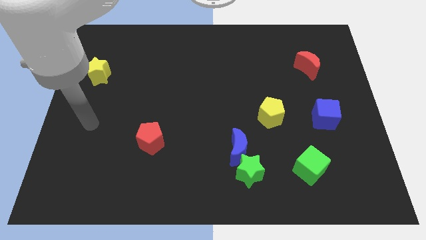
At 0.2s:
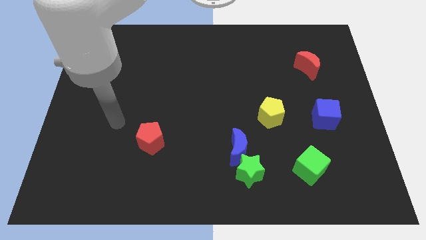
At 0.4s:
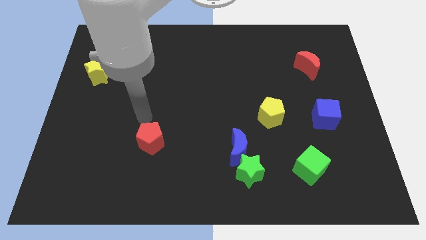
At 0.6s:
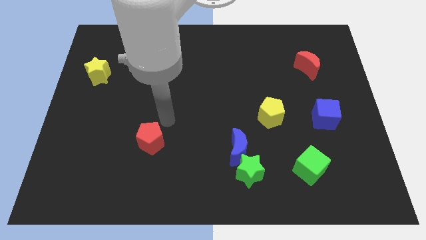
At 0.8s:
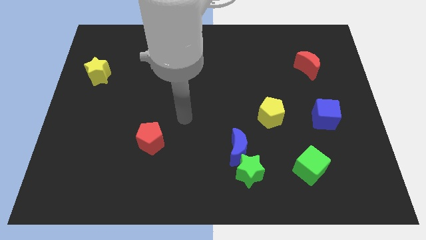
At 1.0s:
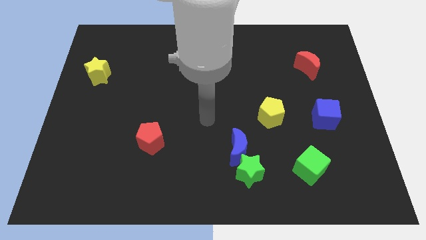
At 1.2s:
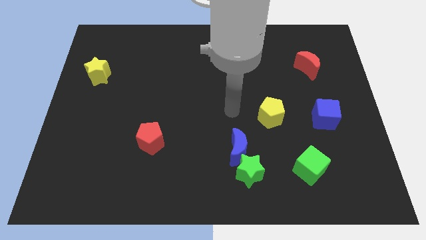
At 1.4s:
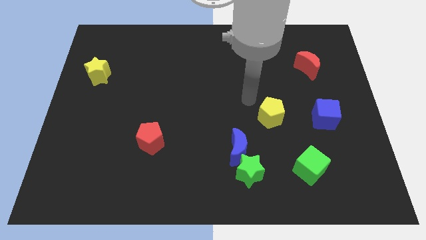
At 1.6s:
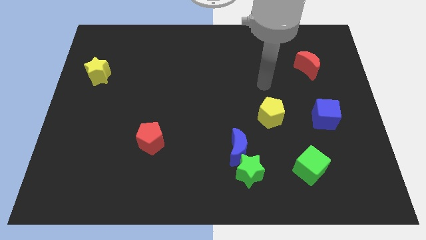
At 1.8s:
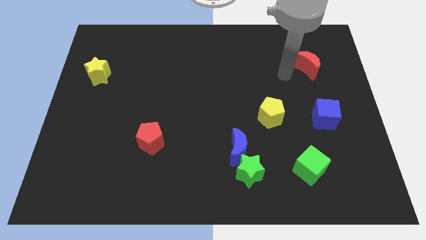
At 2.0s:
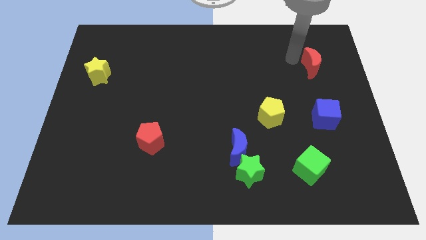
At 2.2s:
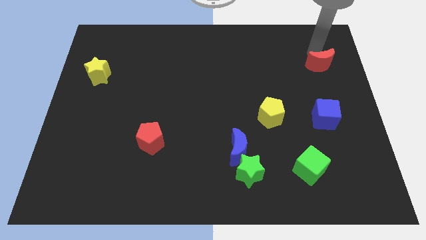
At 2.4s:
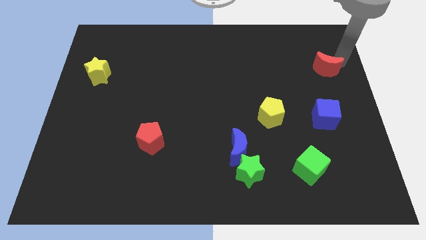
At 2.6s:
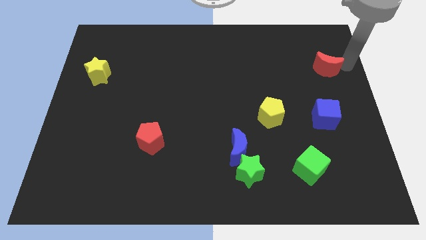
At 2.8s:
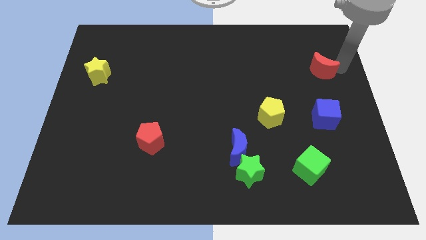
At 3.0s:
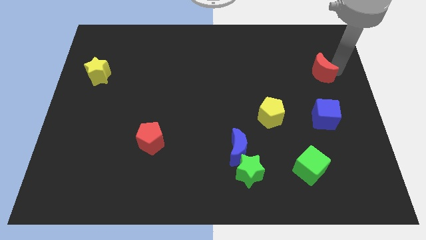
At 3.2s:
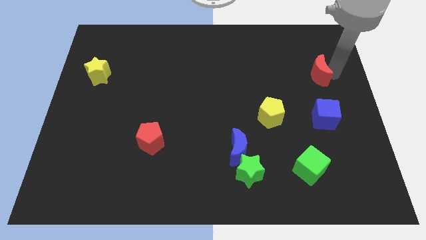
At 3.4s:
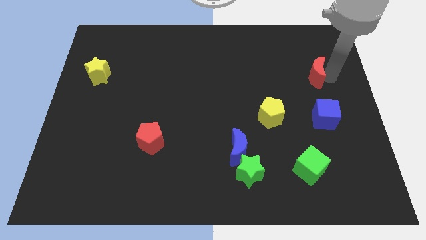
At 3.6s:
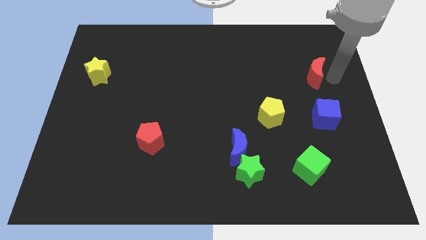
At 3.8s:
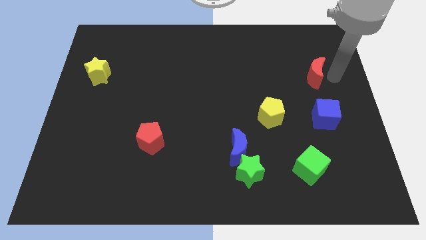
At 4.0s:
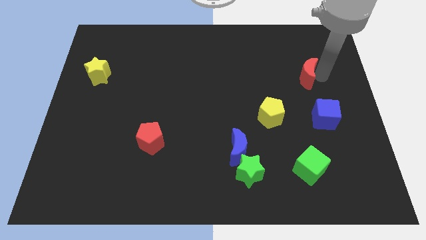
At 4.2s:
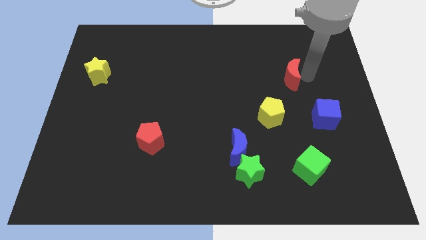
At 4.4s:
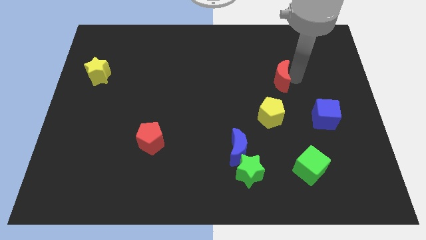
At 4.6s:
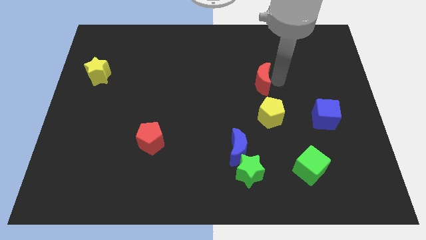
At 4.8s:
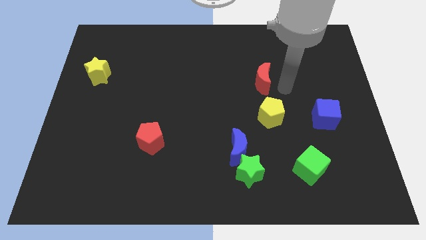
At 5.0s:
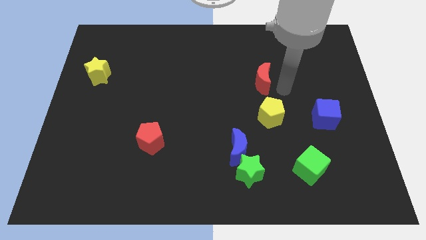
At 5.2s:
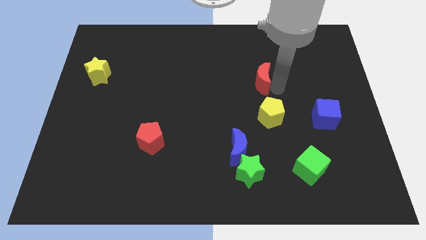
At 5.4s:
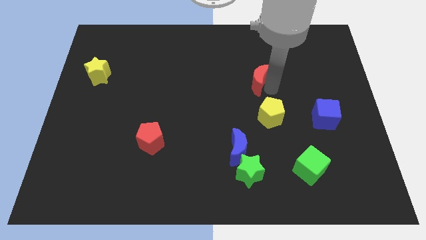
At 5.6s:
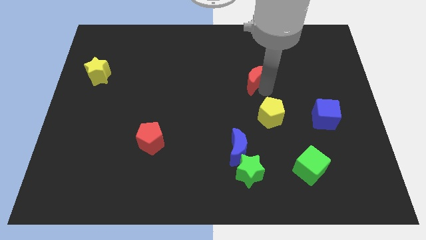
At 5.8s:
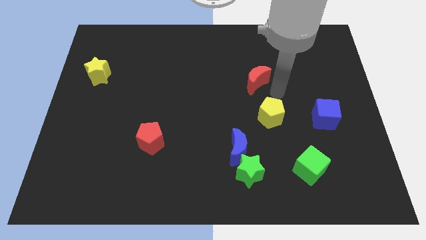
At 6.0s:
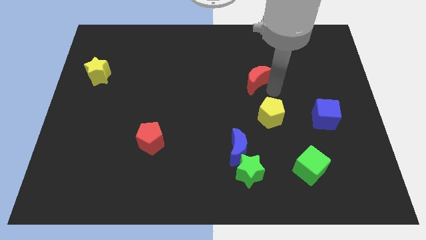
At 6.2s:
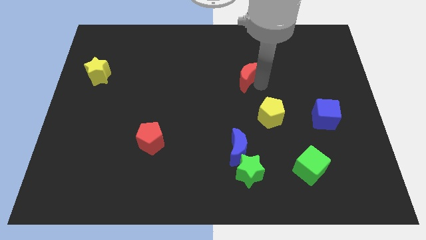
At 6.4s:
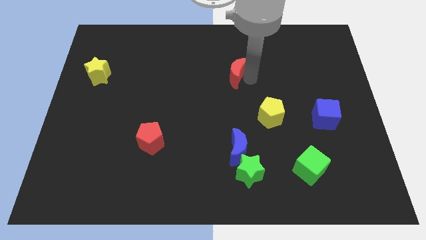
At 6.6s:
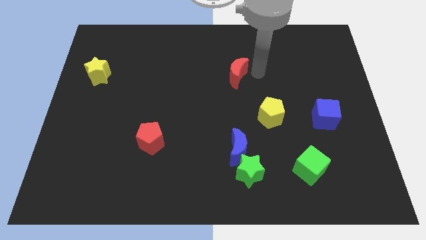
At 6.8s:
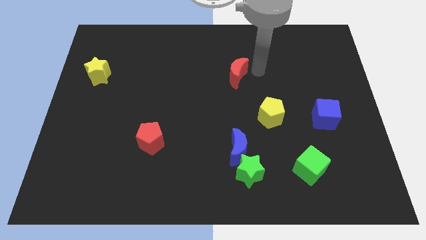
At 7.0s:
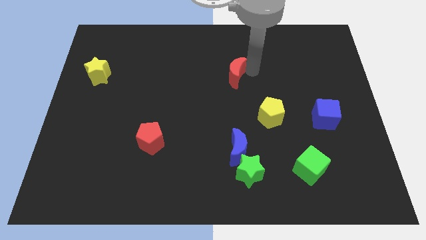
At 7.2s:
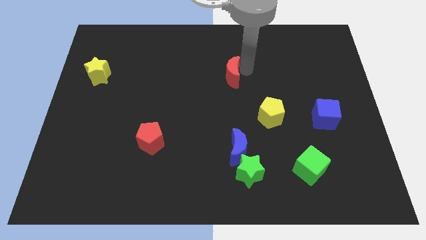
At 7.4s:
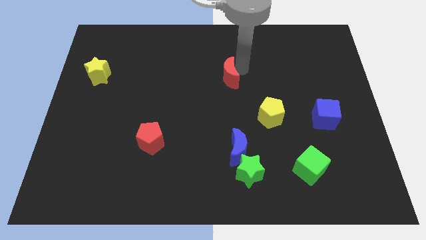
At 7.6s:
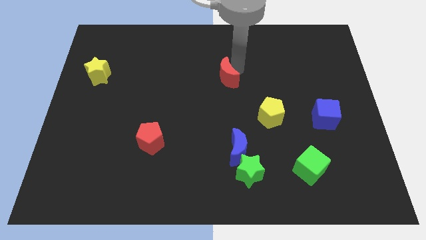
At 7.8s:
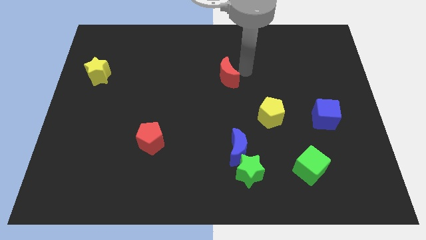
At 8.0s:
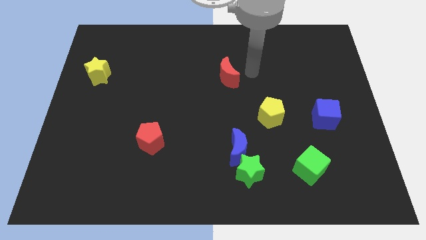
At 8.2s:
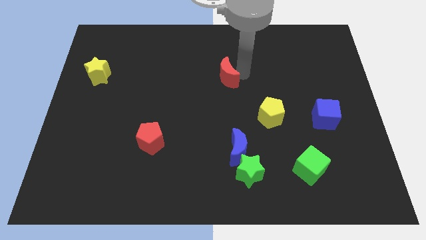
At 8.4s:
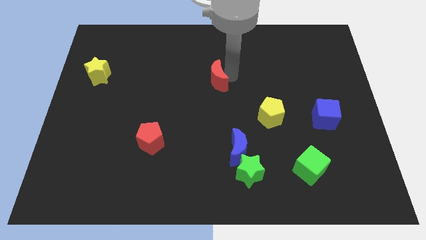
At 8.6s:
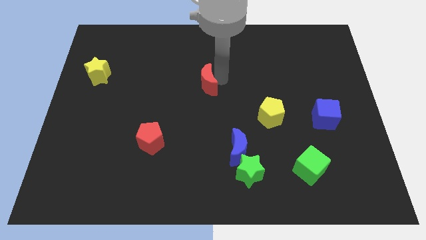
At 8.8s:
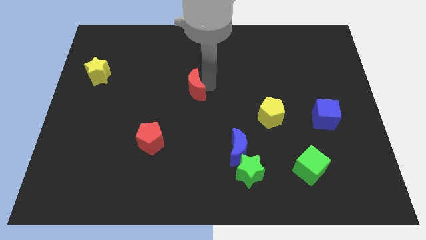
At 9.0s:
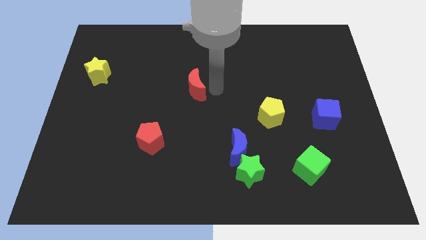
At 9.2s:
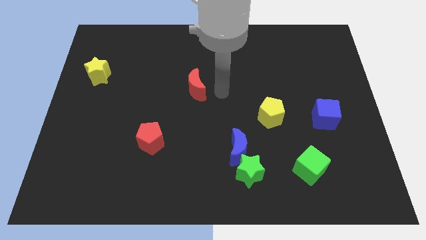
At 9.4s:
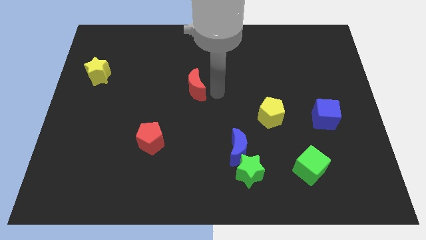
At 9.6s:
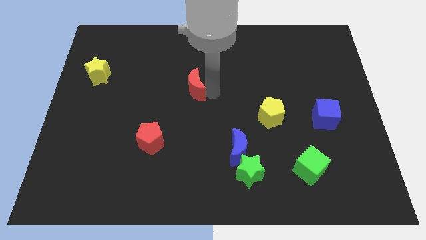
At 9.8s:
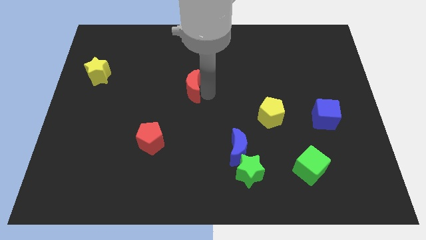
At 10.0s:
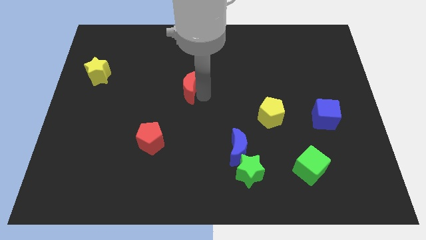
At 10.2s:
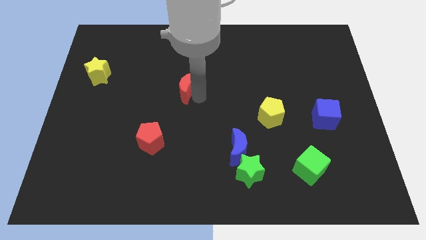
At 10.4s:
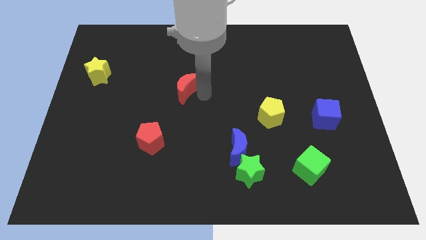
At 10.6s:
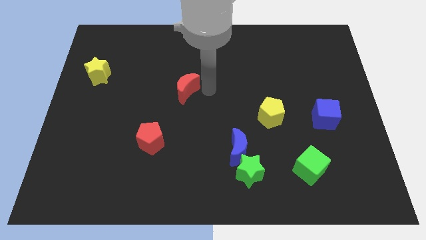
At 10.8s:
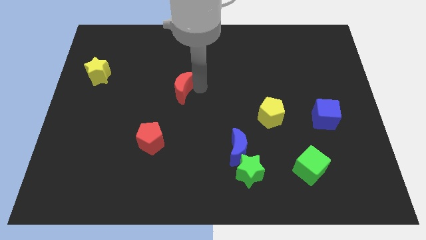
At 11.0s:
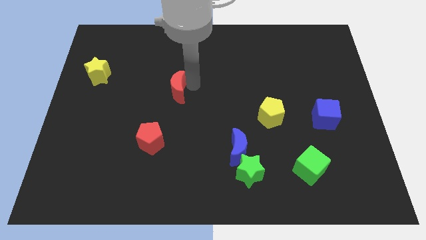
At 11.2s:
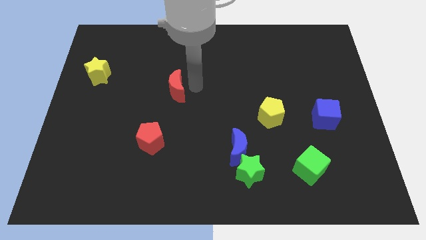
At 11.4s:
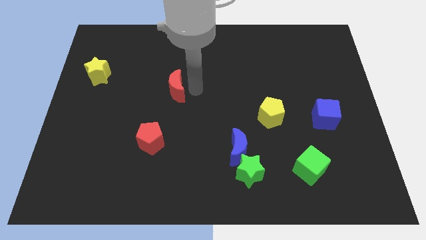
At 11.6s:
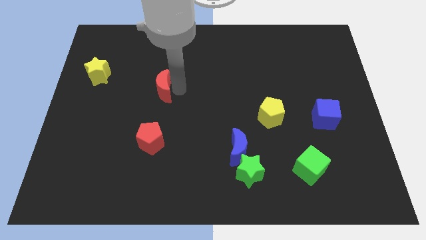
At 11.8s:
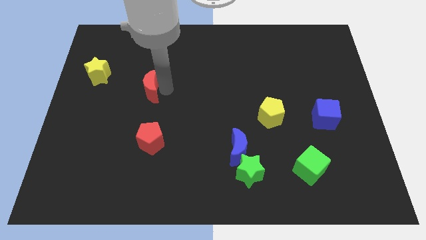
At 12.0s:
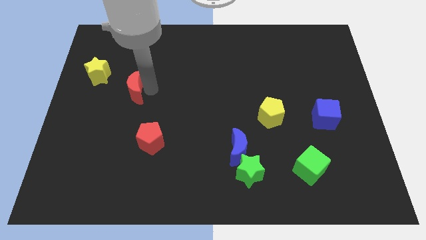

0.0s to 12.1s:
push the red moon to the bottom right of the yellow star

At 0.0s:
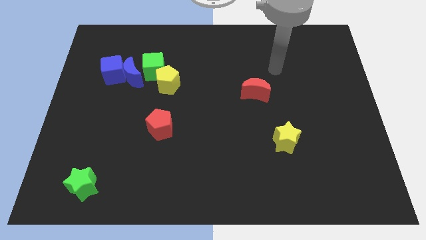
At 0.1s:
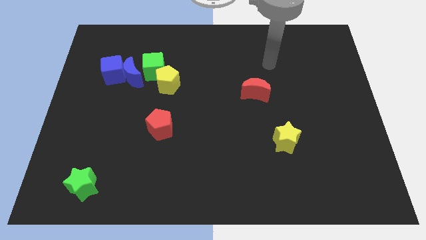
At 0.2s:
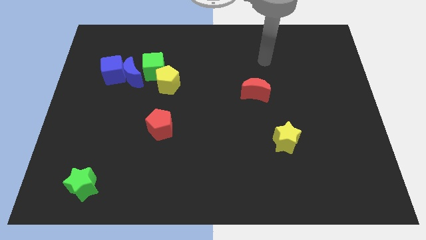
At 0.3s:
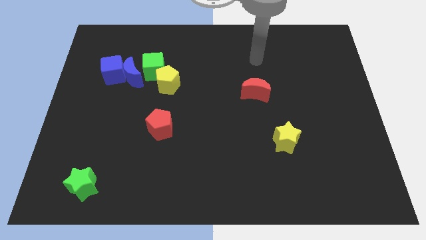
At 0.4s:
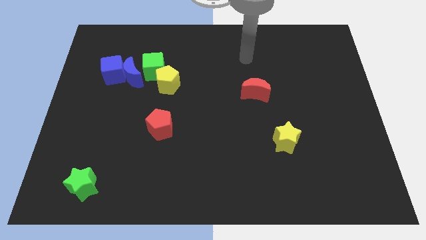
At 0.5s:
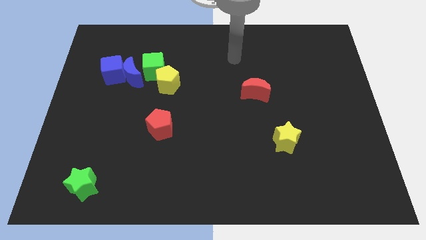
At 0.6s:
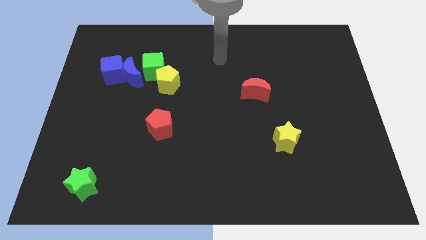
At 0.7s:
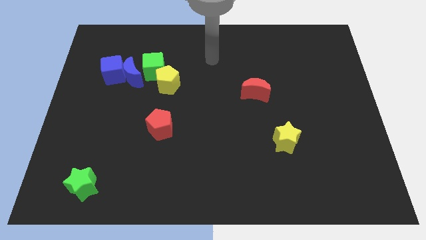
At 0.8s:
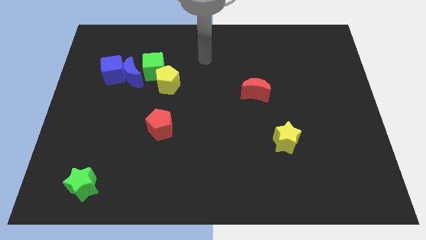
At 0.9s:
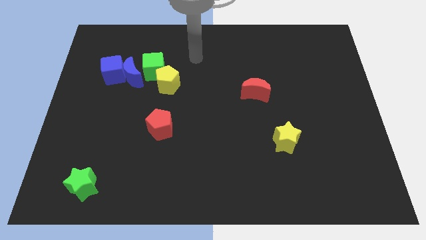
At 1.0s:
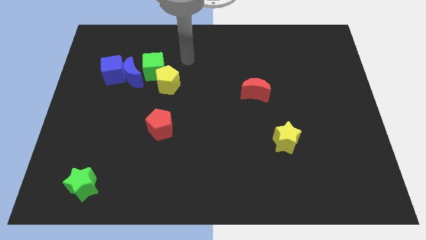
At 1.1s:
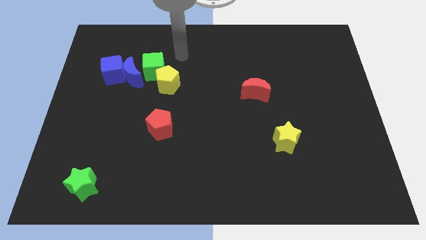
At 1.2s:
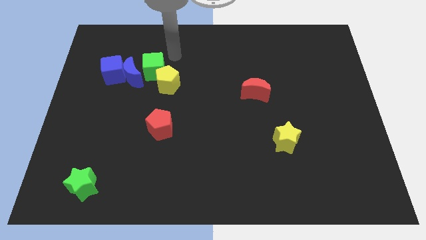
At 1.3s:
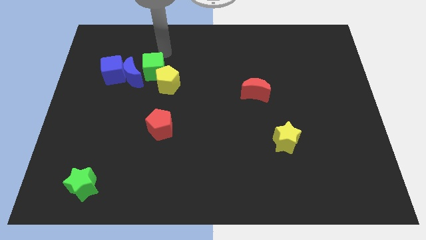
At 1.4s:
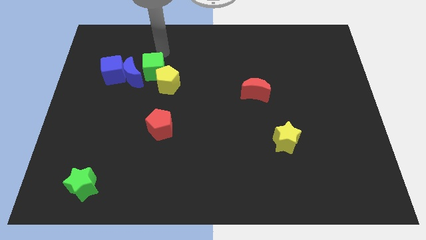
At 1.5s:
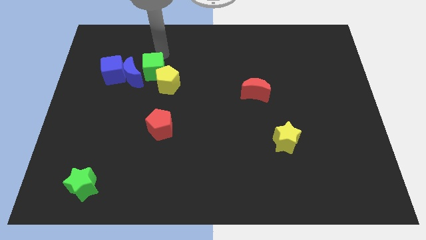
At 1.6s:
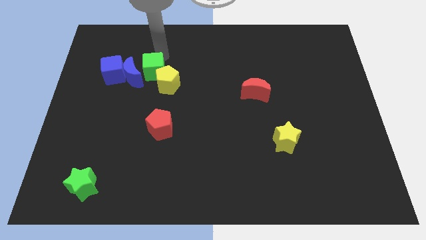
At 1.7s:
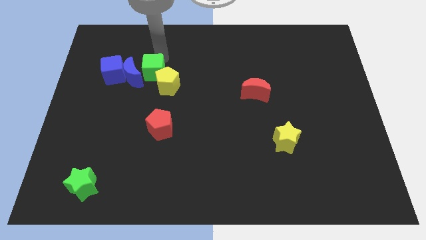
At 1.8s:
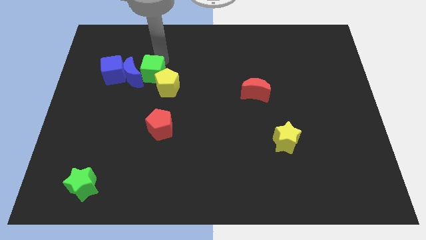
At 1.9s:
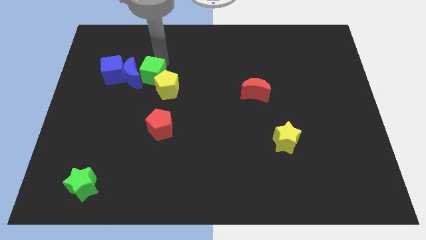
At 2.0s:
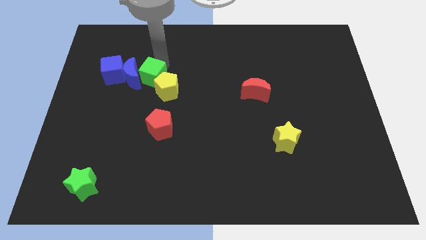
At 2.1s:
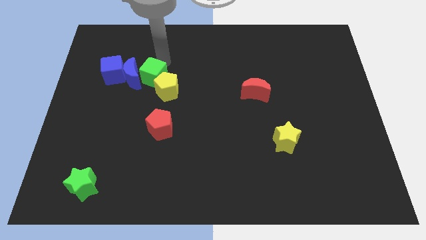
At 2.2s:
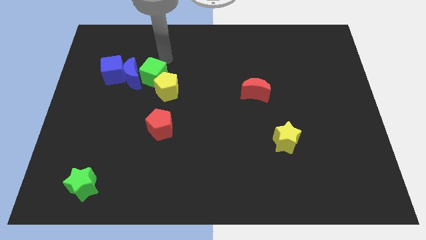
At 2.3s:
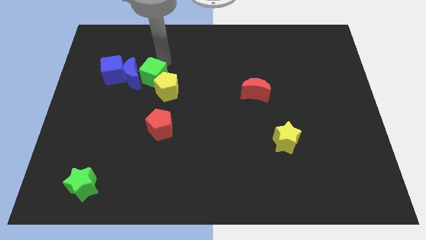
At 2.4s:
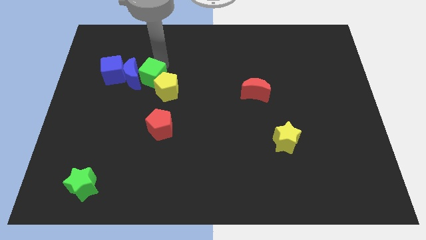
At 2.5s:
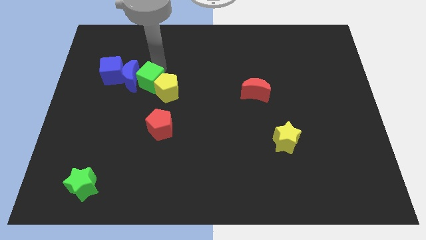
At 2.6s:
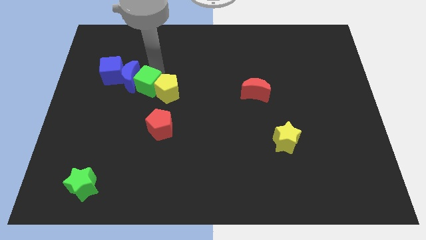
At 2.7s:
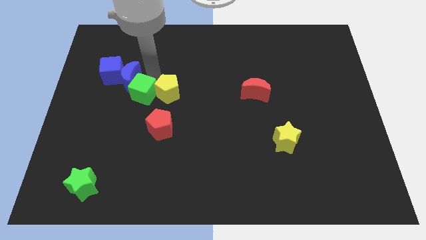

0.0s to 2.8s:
push the green cube to the bottom side of the blue moon
